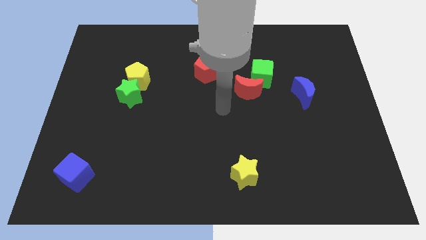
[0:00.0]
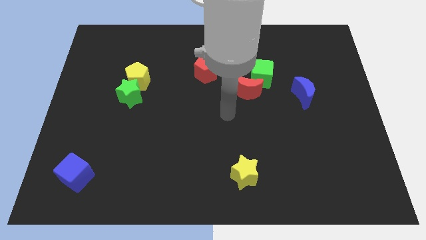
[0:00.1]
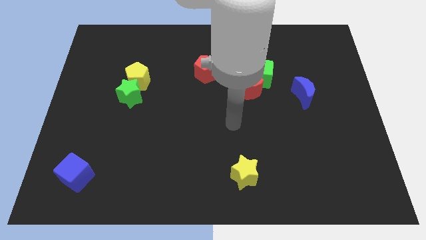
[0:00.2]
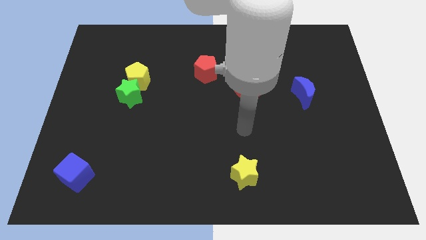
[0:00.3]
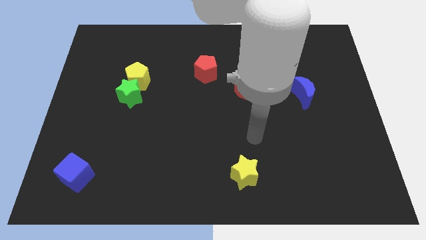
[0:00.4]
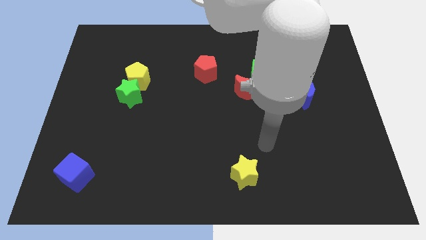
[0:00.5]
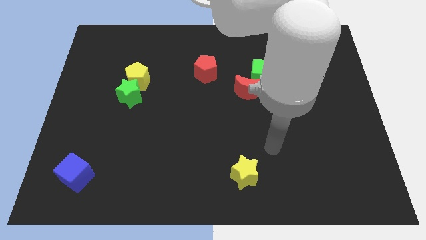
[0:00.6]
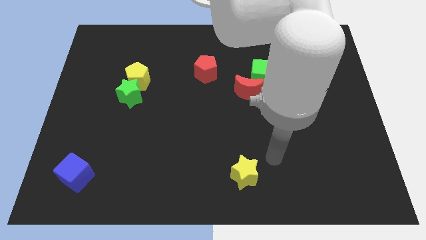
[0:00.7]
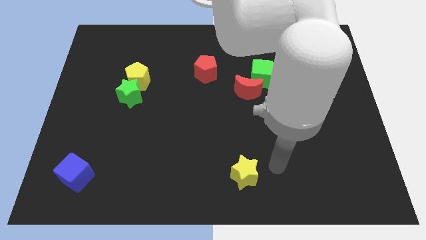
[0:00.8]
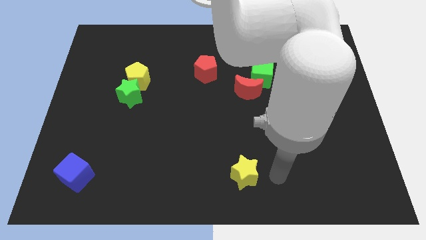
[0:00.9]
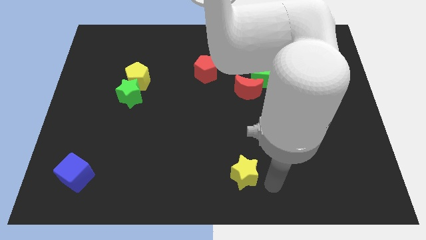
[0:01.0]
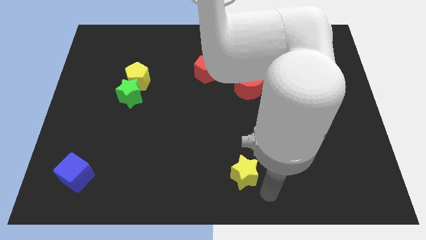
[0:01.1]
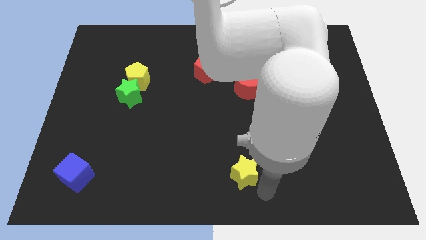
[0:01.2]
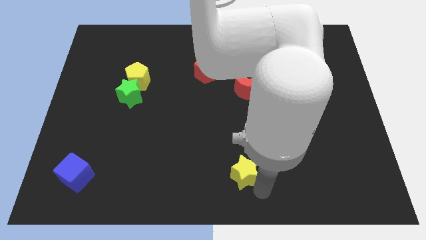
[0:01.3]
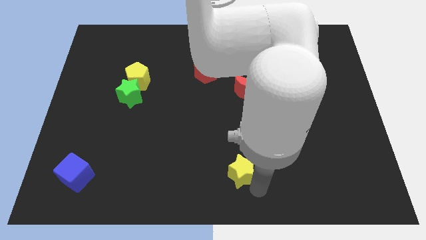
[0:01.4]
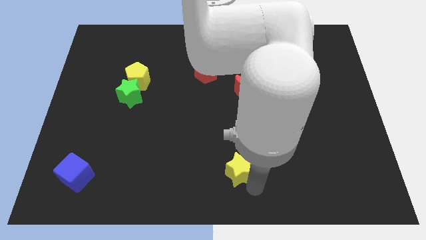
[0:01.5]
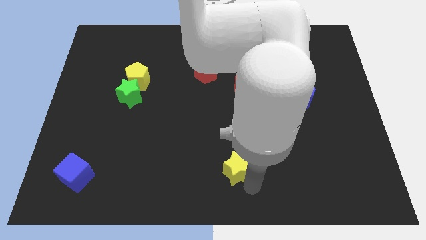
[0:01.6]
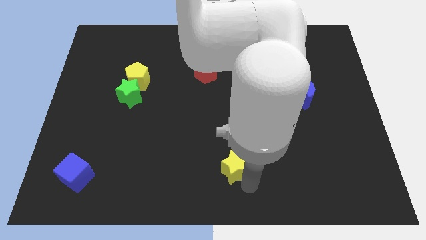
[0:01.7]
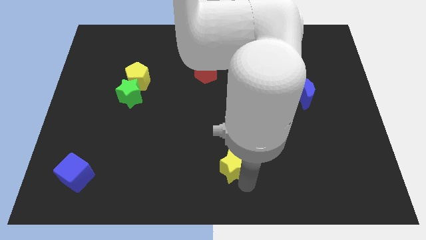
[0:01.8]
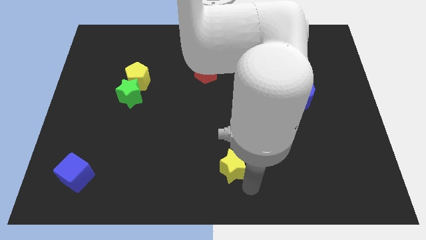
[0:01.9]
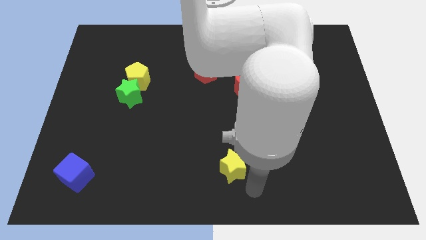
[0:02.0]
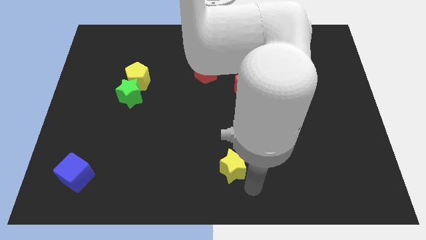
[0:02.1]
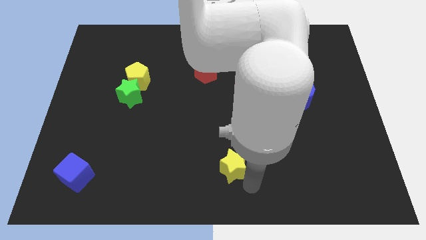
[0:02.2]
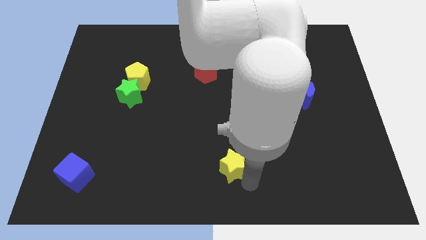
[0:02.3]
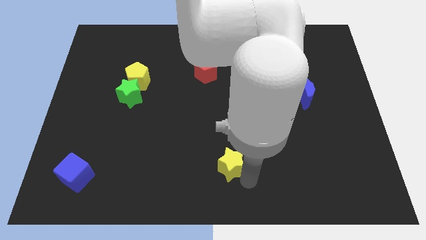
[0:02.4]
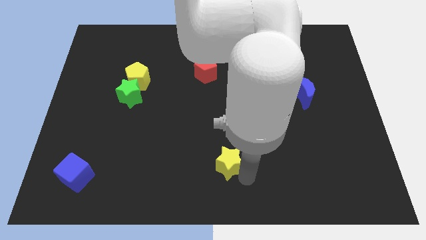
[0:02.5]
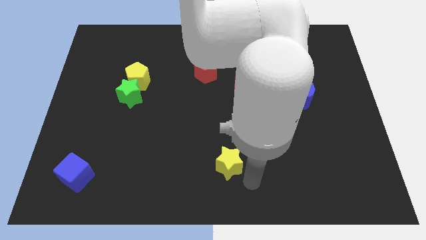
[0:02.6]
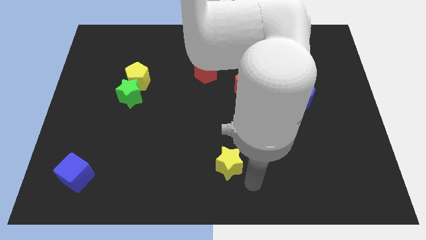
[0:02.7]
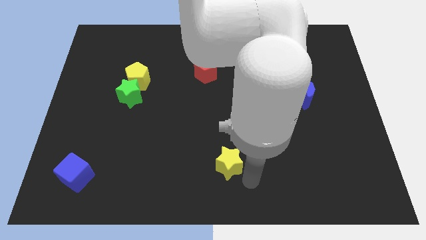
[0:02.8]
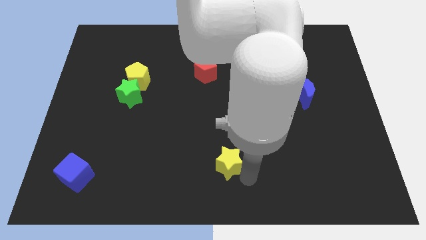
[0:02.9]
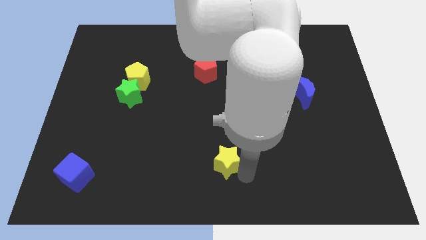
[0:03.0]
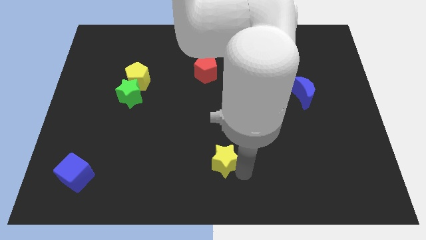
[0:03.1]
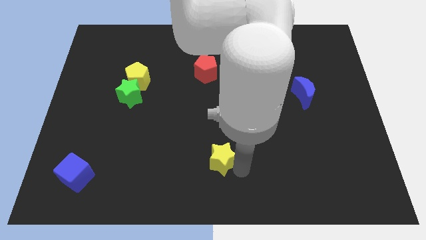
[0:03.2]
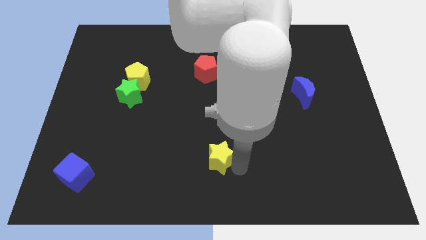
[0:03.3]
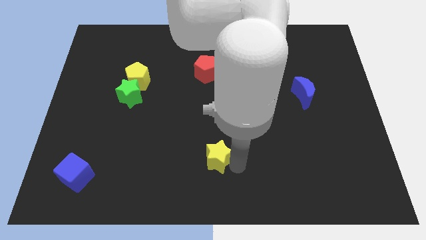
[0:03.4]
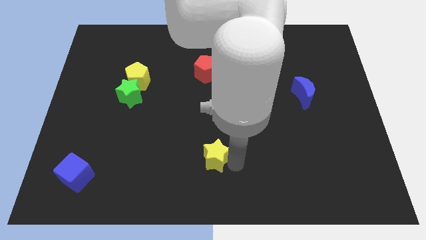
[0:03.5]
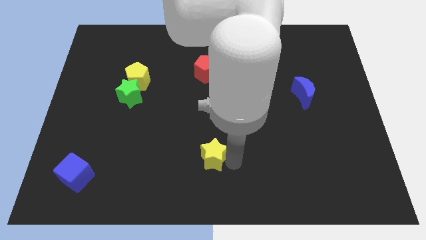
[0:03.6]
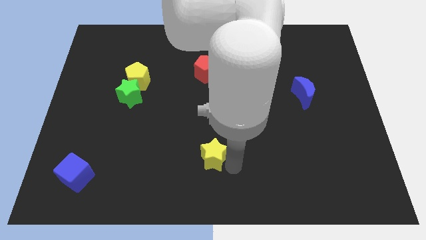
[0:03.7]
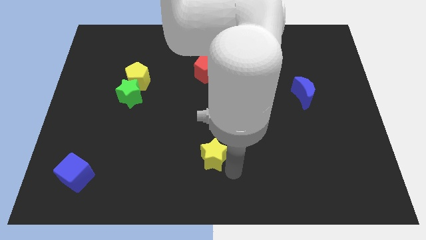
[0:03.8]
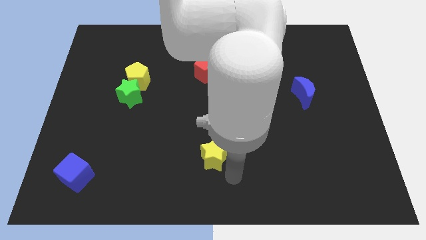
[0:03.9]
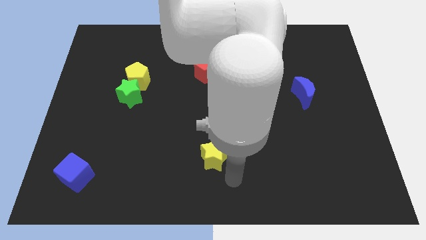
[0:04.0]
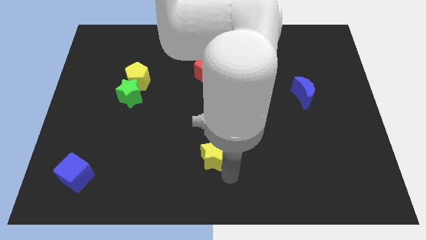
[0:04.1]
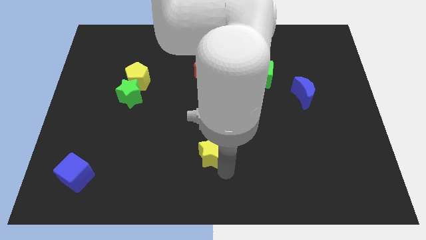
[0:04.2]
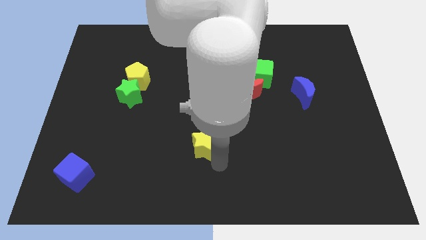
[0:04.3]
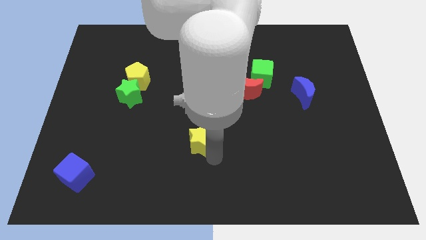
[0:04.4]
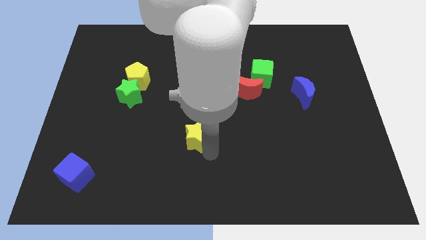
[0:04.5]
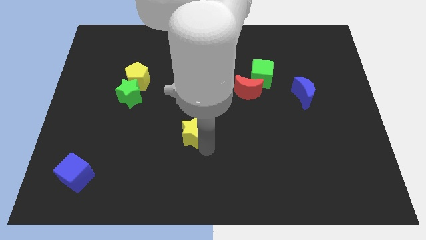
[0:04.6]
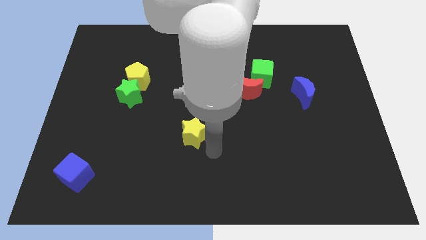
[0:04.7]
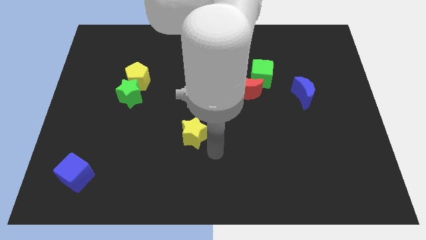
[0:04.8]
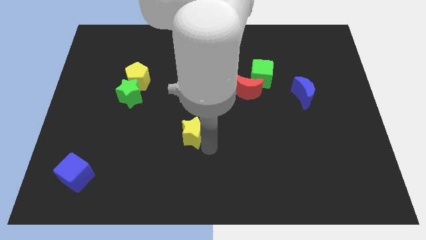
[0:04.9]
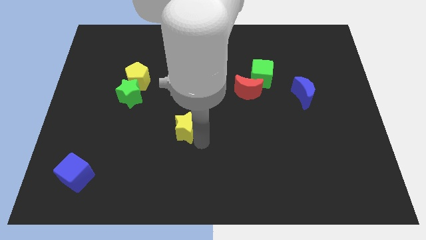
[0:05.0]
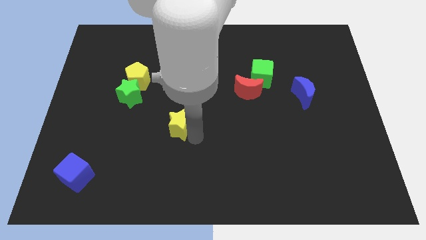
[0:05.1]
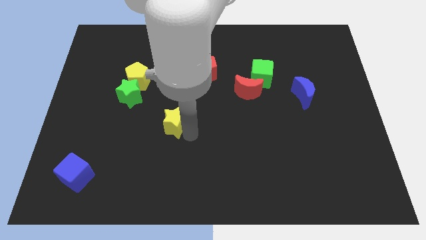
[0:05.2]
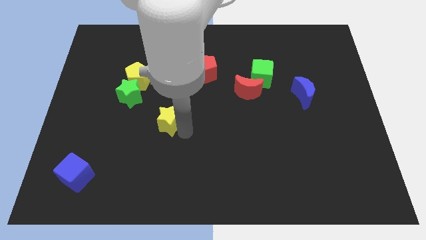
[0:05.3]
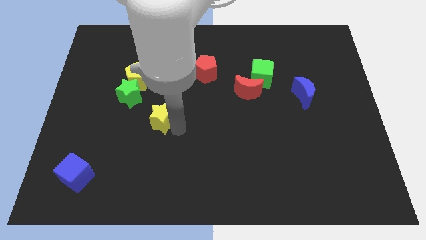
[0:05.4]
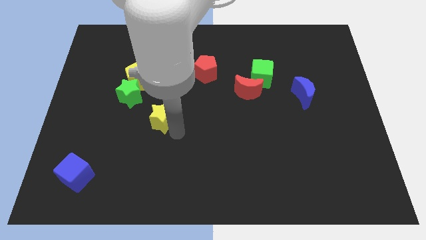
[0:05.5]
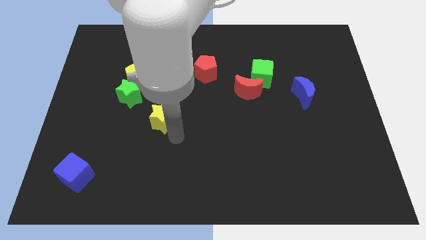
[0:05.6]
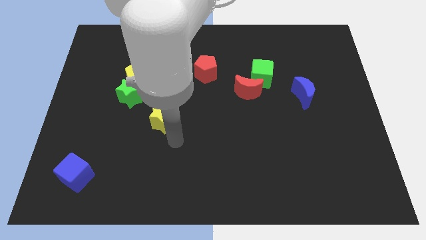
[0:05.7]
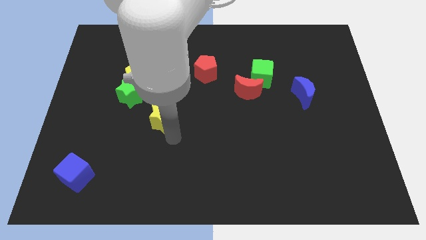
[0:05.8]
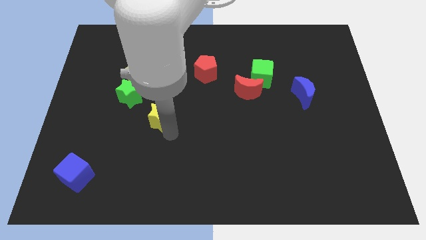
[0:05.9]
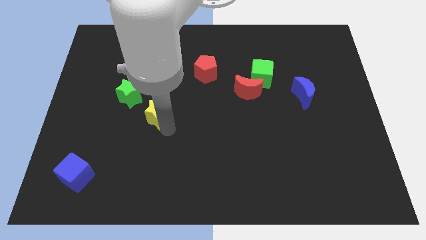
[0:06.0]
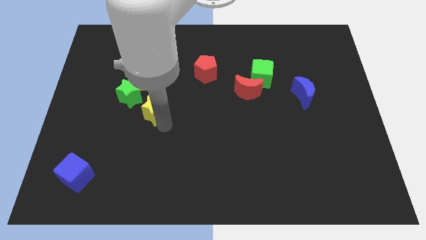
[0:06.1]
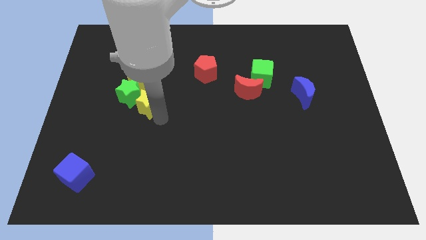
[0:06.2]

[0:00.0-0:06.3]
put the yellow star towards the green star

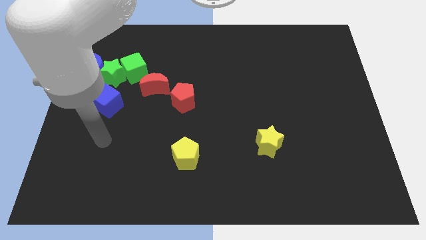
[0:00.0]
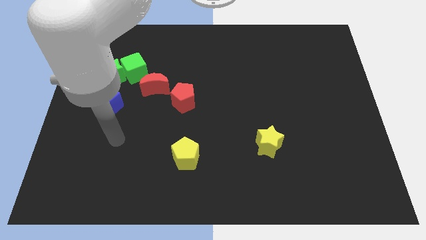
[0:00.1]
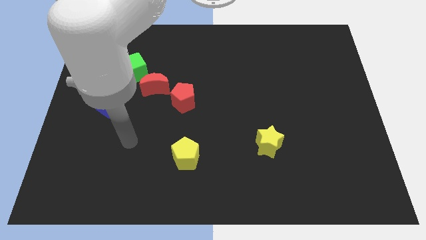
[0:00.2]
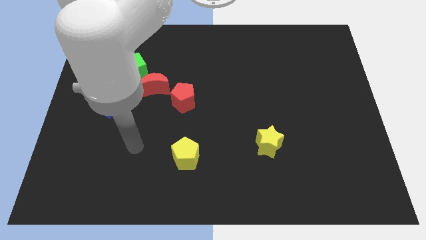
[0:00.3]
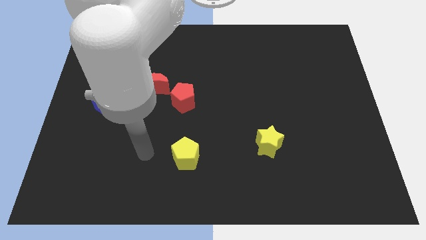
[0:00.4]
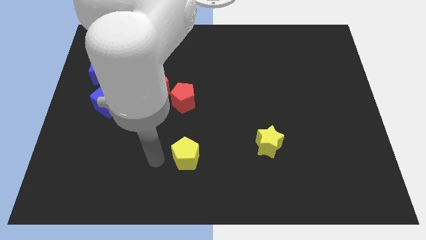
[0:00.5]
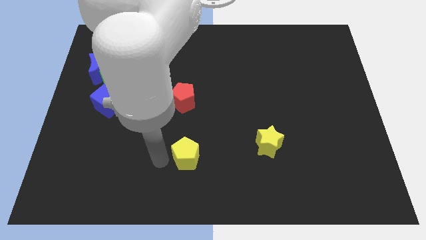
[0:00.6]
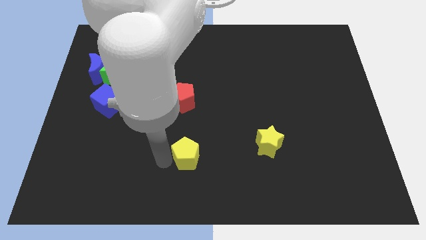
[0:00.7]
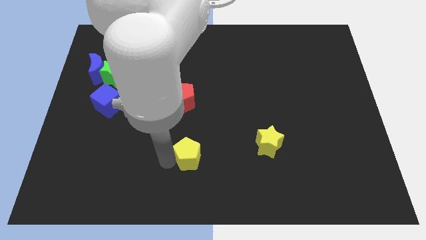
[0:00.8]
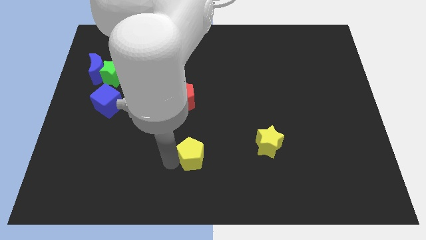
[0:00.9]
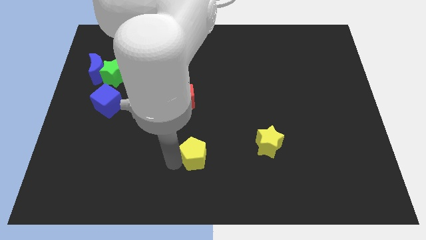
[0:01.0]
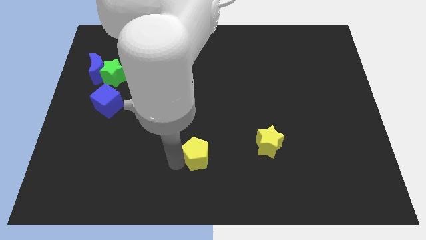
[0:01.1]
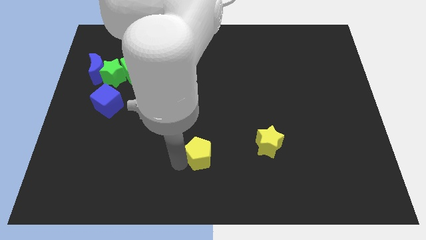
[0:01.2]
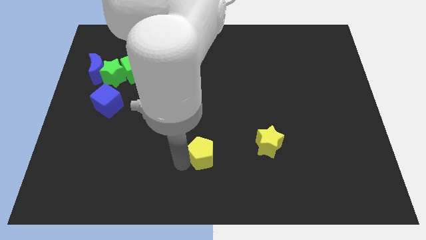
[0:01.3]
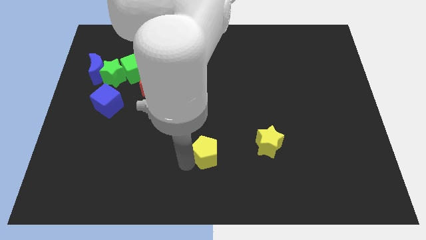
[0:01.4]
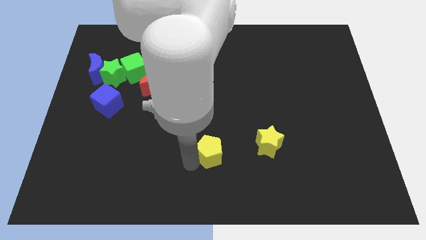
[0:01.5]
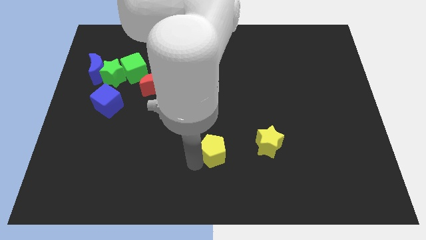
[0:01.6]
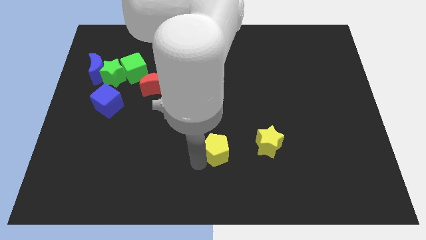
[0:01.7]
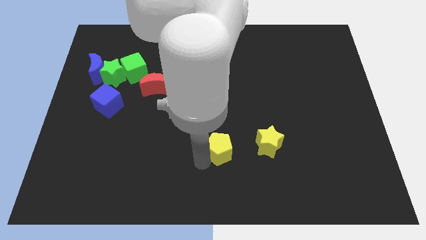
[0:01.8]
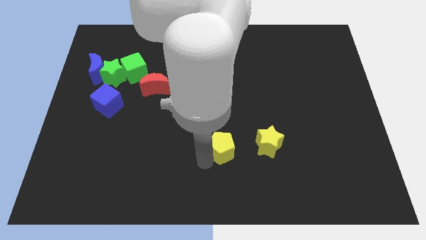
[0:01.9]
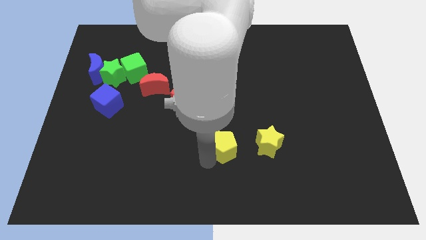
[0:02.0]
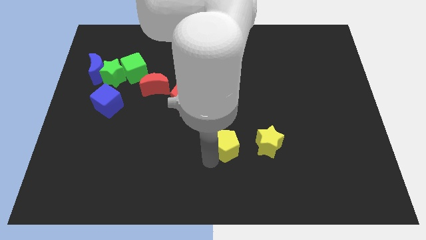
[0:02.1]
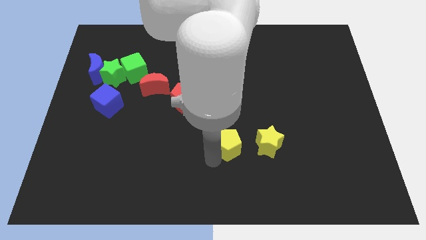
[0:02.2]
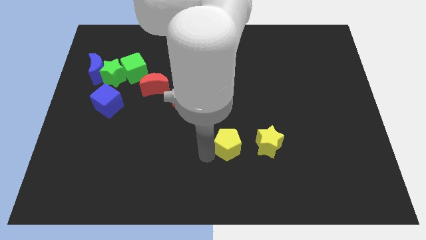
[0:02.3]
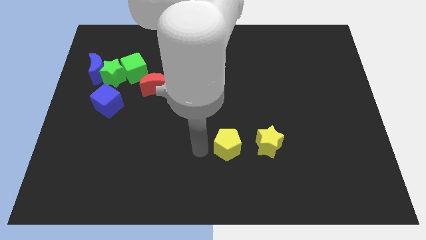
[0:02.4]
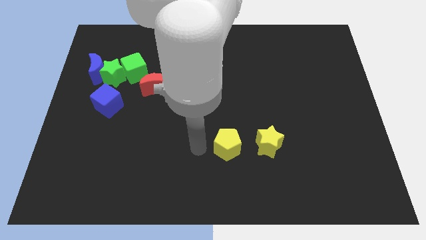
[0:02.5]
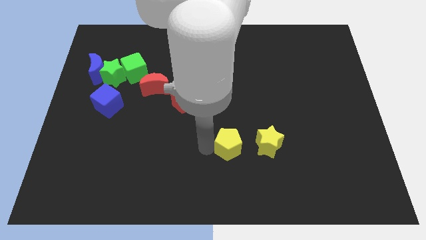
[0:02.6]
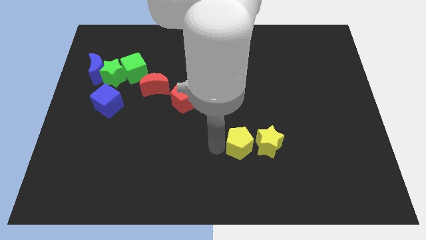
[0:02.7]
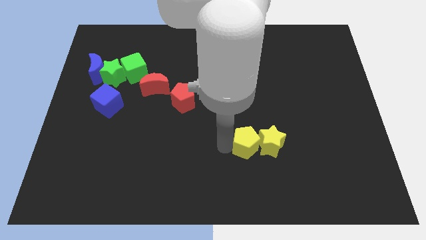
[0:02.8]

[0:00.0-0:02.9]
move the yellow pentagon next to the yellow star
